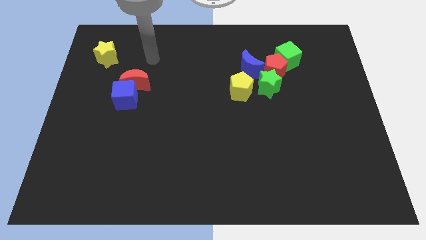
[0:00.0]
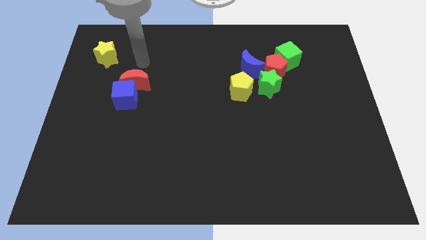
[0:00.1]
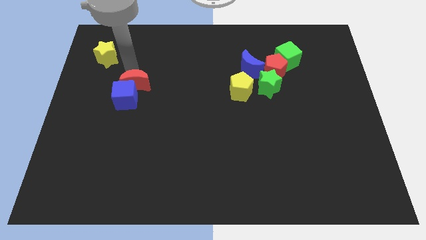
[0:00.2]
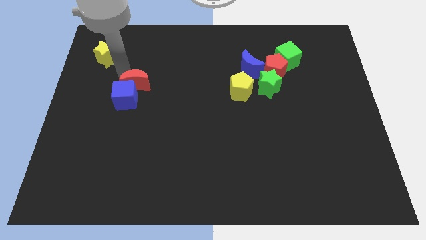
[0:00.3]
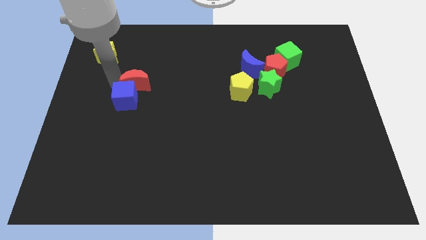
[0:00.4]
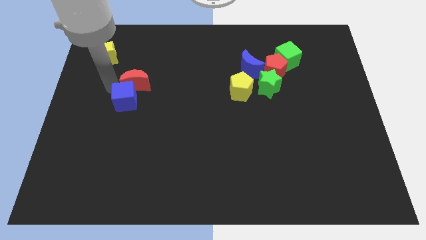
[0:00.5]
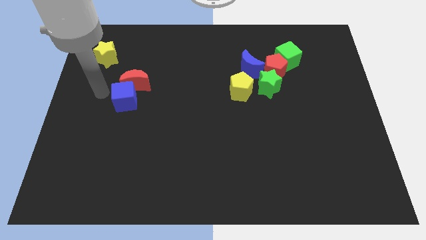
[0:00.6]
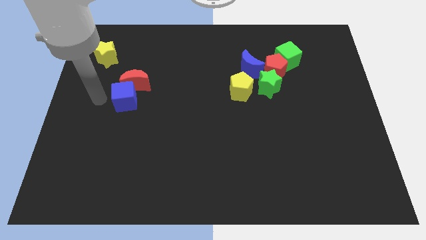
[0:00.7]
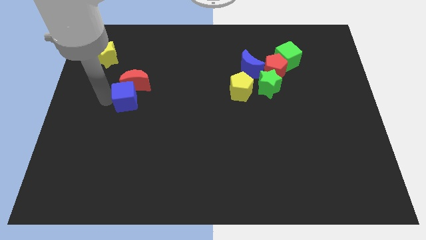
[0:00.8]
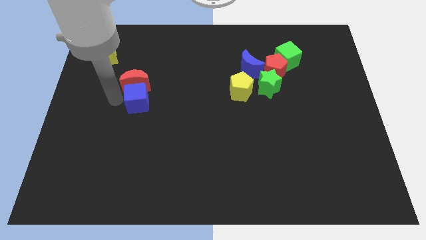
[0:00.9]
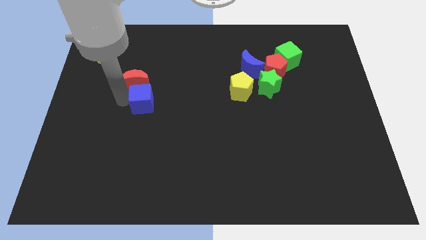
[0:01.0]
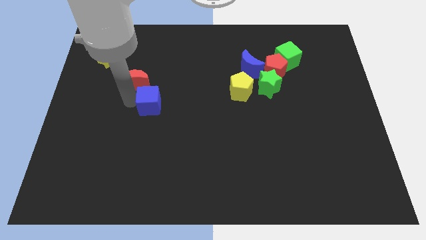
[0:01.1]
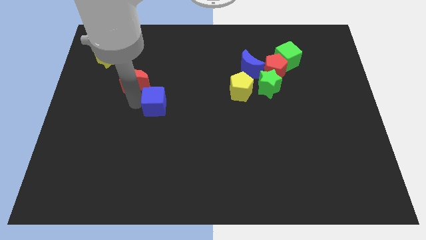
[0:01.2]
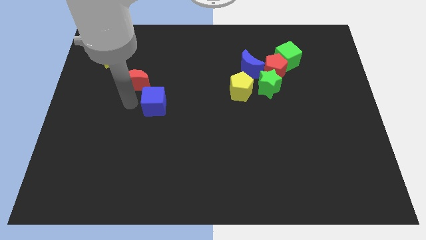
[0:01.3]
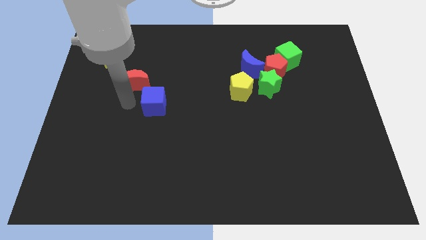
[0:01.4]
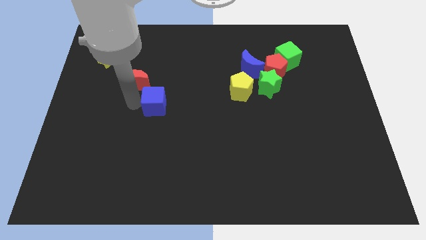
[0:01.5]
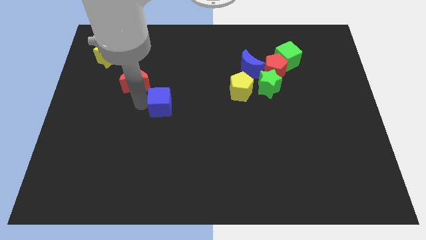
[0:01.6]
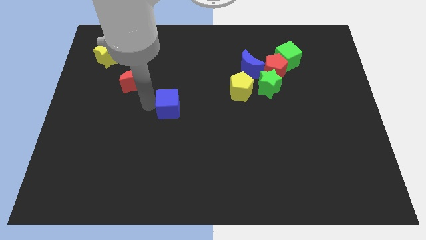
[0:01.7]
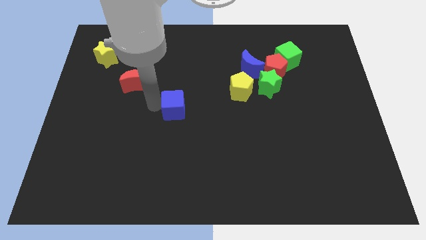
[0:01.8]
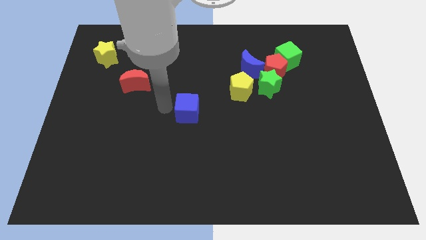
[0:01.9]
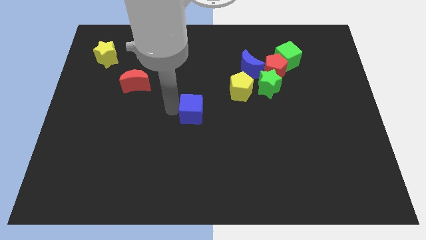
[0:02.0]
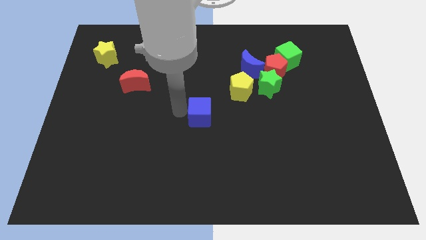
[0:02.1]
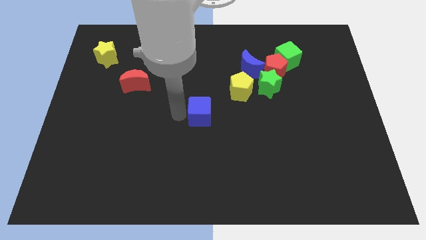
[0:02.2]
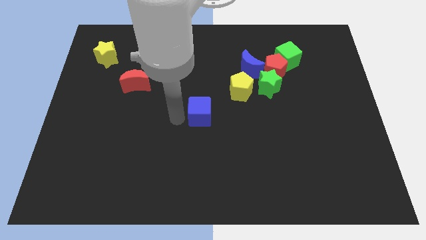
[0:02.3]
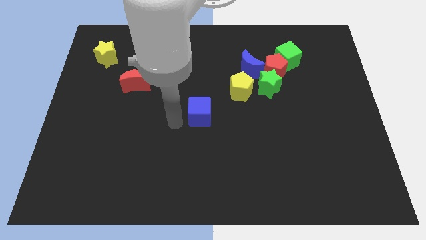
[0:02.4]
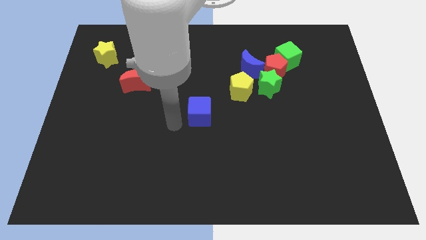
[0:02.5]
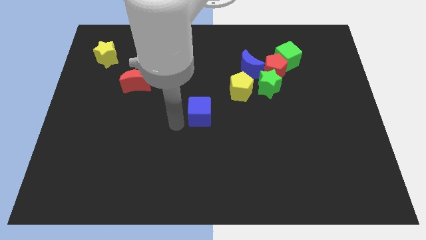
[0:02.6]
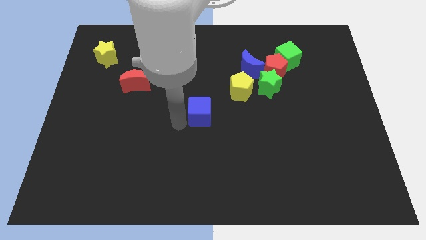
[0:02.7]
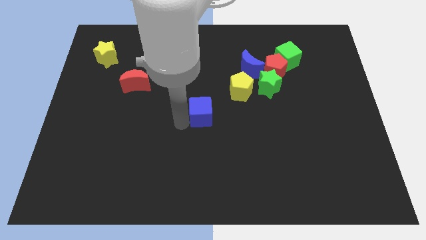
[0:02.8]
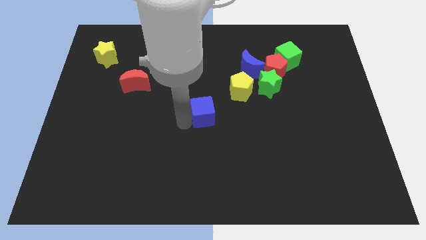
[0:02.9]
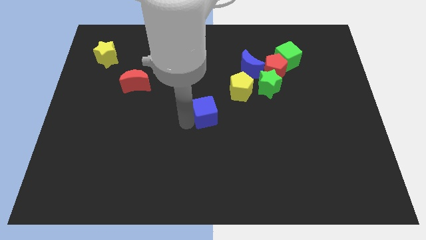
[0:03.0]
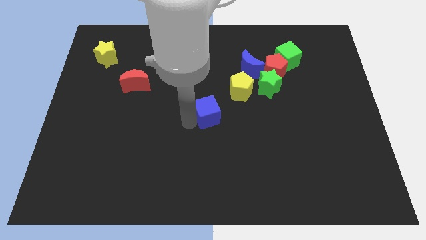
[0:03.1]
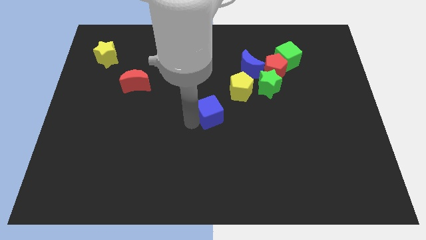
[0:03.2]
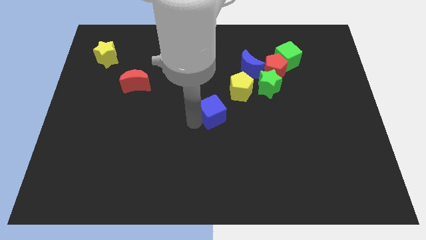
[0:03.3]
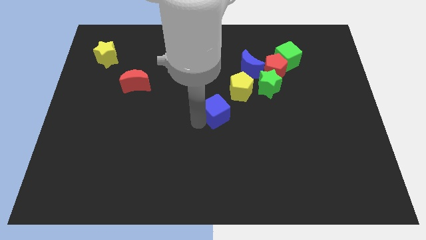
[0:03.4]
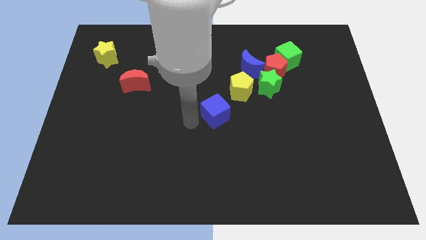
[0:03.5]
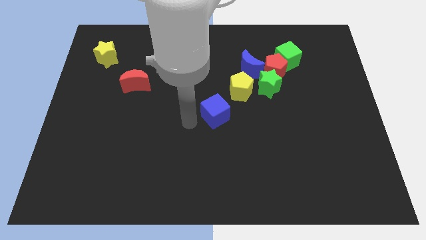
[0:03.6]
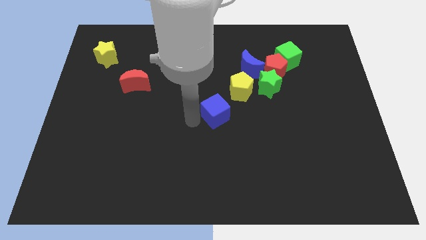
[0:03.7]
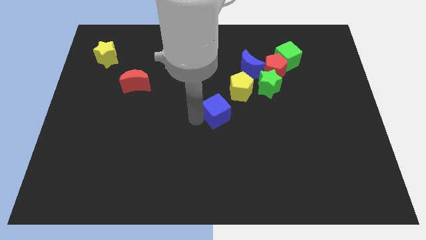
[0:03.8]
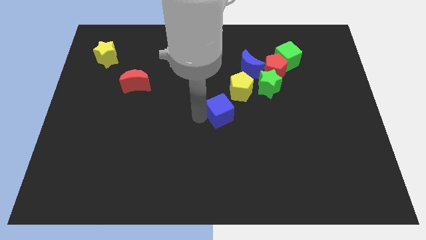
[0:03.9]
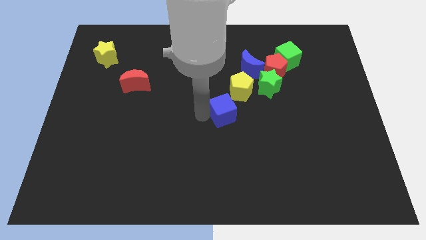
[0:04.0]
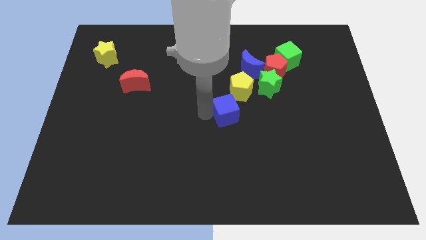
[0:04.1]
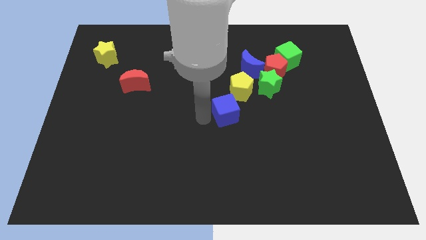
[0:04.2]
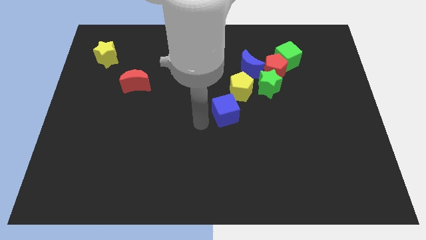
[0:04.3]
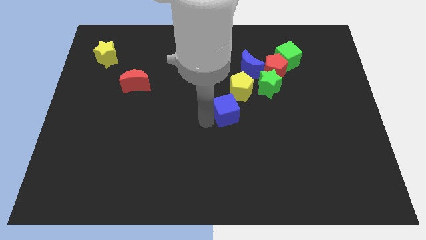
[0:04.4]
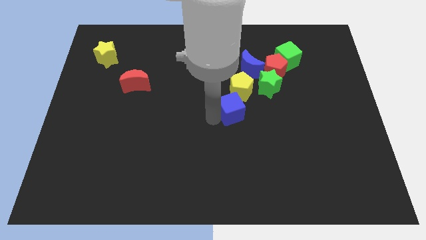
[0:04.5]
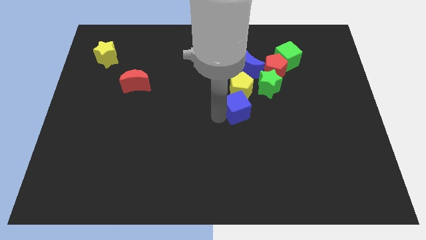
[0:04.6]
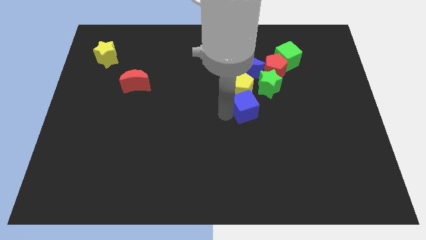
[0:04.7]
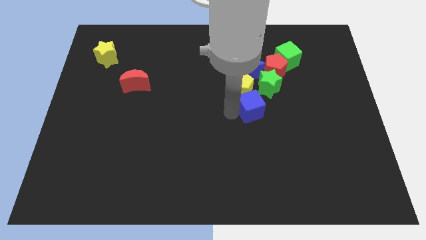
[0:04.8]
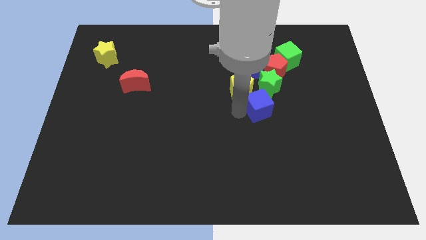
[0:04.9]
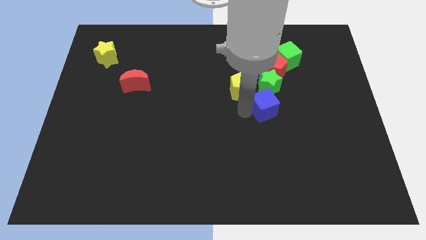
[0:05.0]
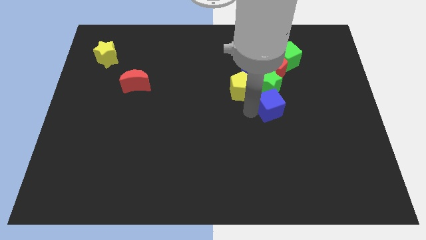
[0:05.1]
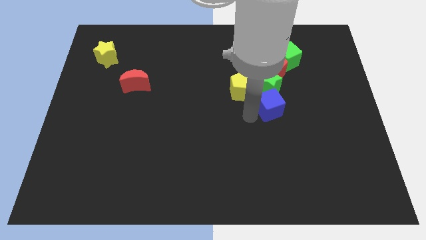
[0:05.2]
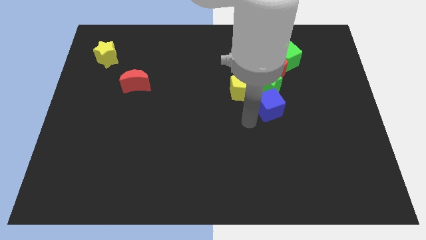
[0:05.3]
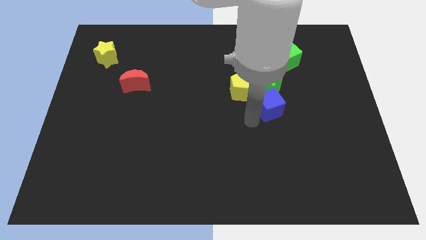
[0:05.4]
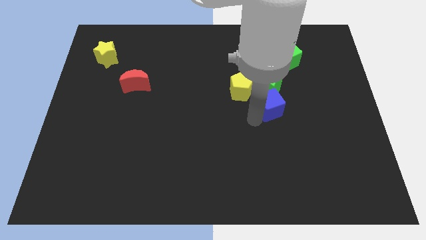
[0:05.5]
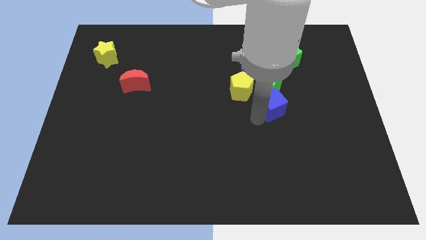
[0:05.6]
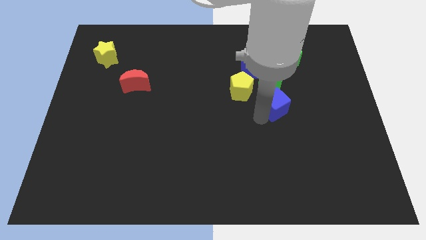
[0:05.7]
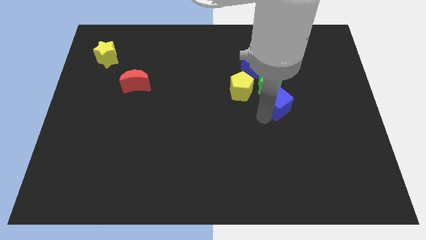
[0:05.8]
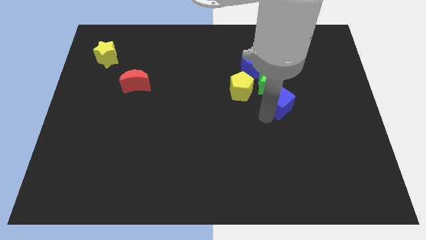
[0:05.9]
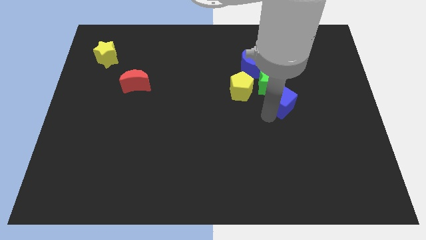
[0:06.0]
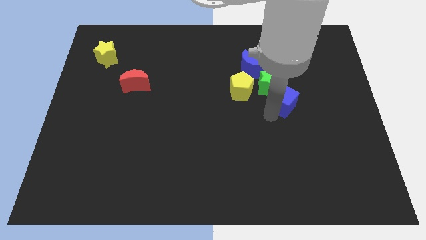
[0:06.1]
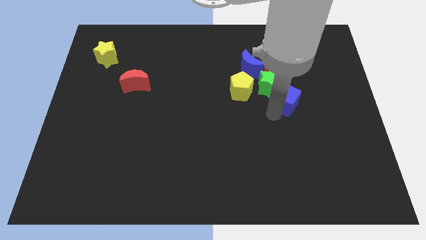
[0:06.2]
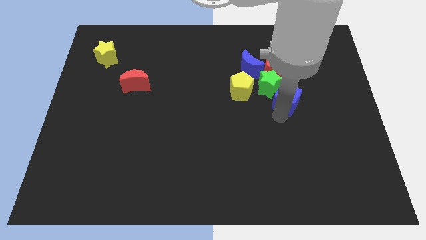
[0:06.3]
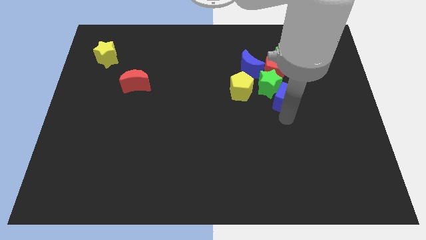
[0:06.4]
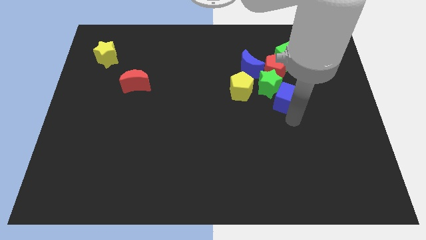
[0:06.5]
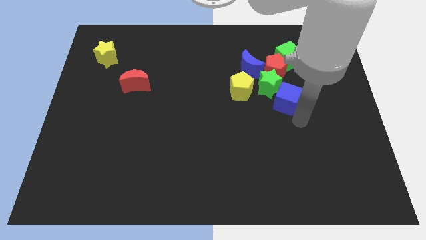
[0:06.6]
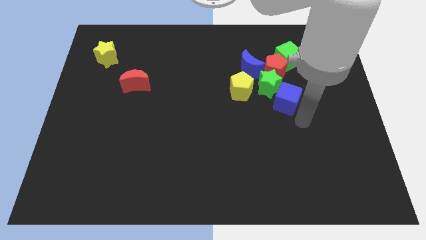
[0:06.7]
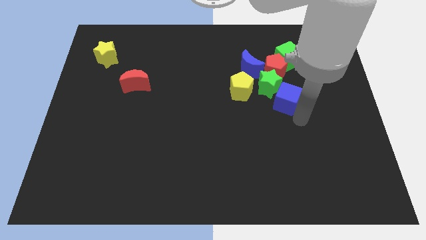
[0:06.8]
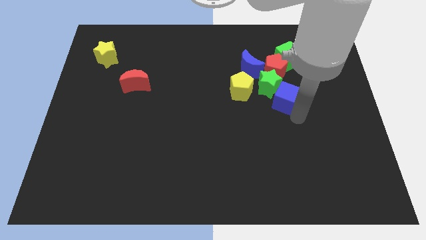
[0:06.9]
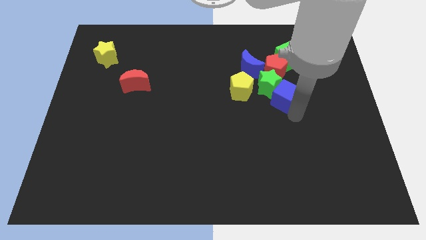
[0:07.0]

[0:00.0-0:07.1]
move the blue cube diagonally down and to the right of the blue moon

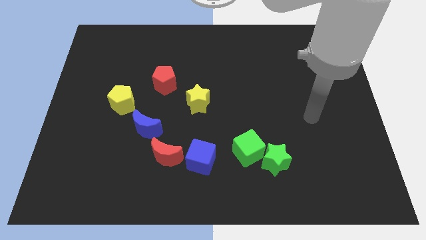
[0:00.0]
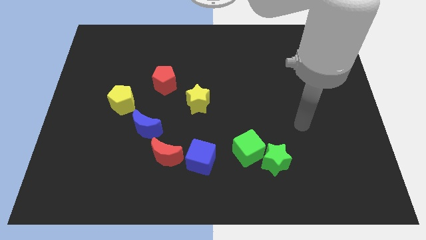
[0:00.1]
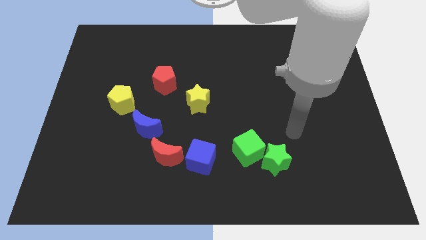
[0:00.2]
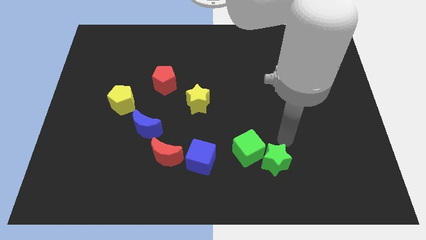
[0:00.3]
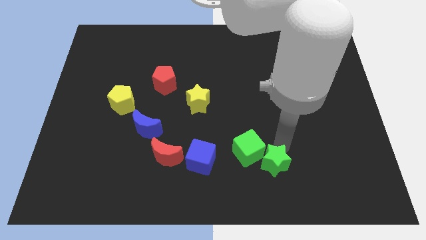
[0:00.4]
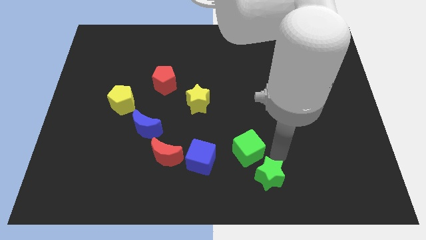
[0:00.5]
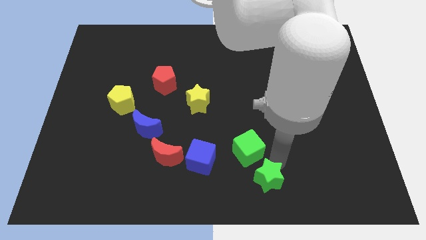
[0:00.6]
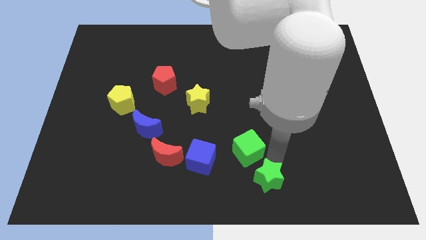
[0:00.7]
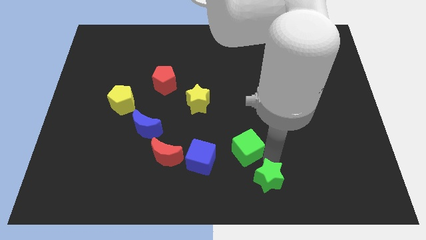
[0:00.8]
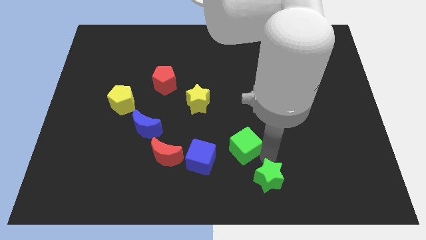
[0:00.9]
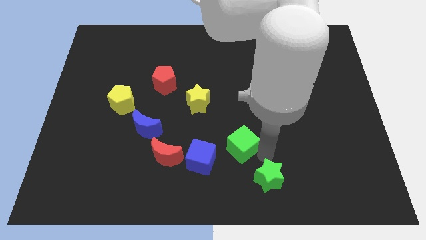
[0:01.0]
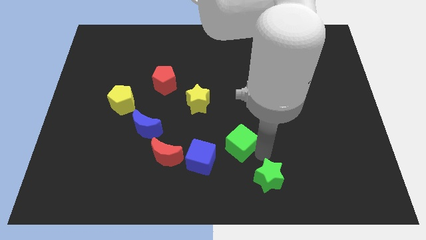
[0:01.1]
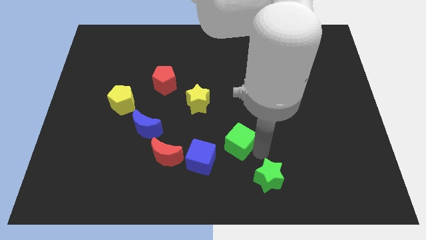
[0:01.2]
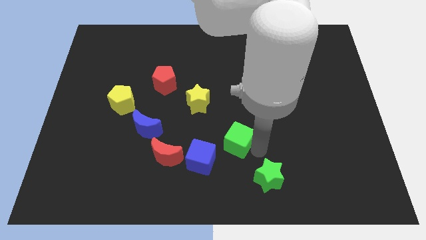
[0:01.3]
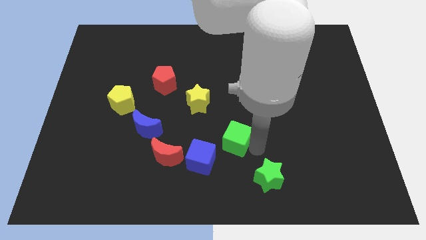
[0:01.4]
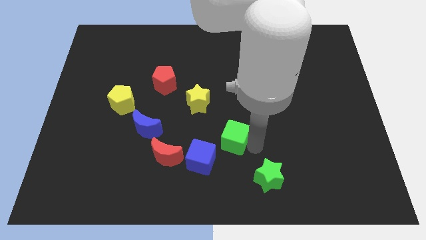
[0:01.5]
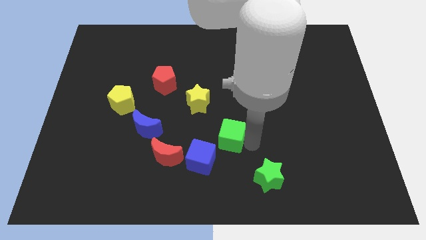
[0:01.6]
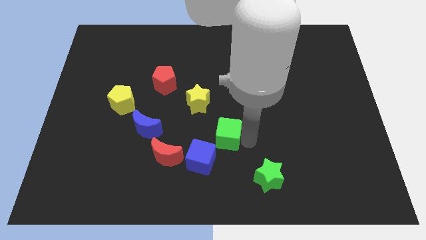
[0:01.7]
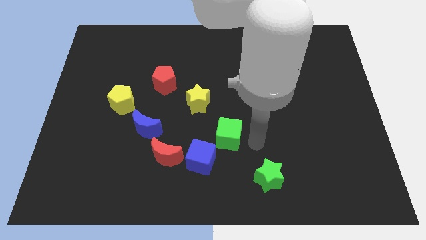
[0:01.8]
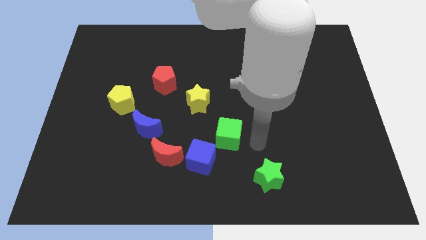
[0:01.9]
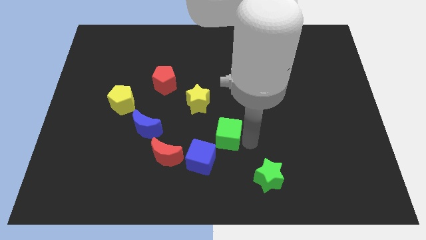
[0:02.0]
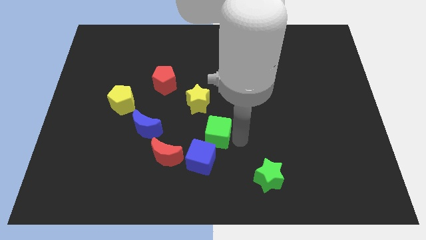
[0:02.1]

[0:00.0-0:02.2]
slide the green cube right of the blue moon
